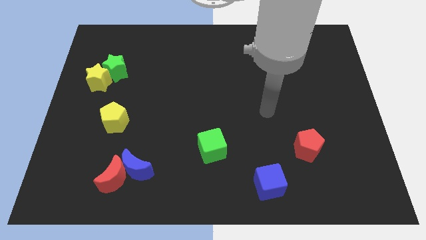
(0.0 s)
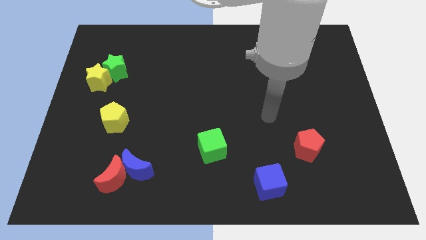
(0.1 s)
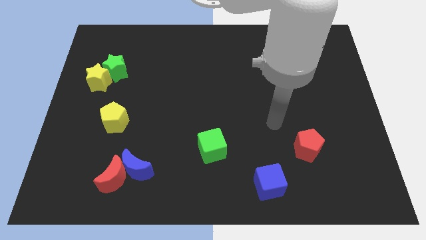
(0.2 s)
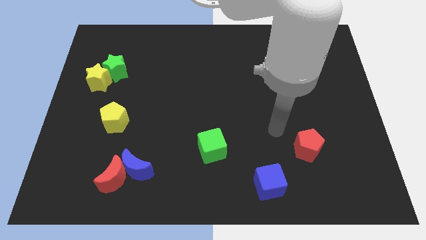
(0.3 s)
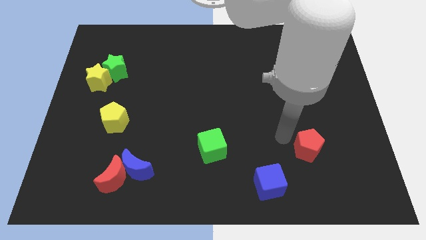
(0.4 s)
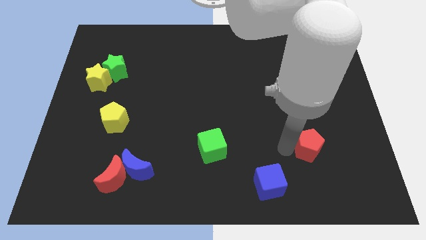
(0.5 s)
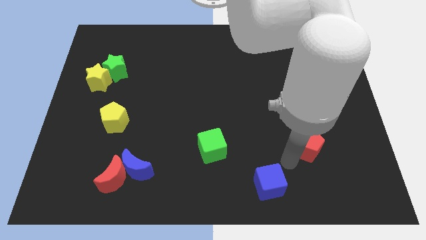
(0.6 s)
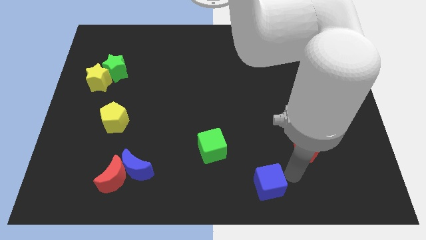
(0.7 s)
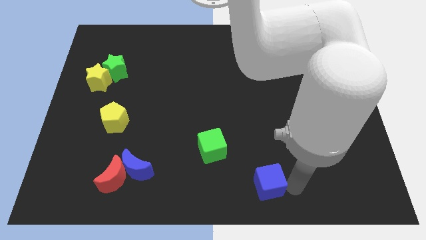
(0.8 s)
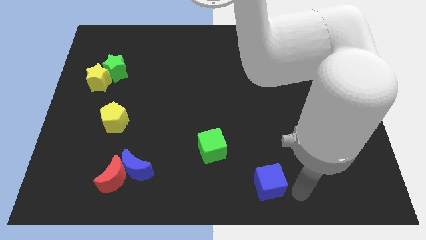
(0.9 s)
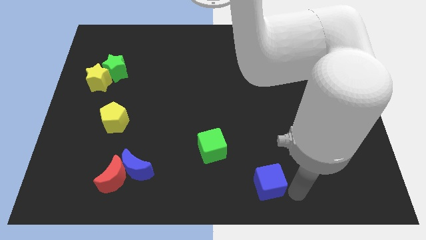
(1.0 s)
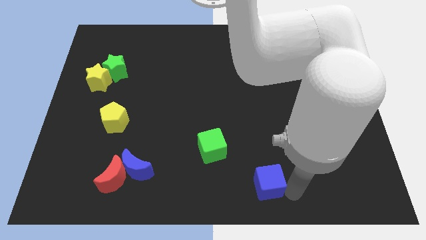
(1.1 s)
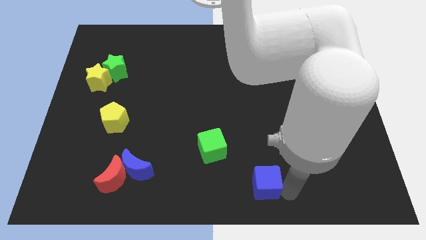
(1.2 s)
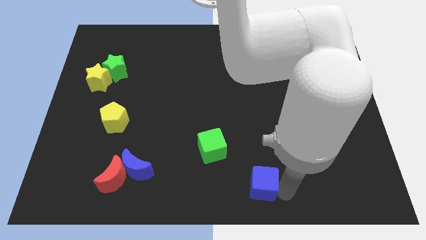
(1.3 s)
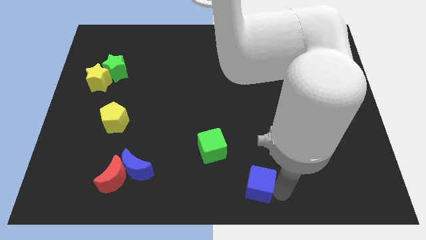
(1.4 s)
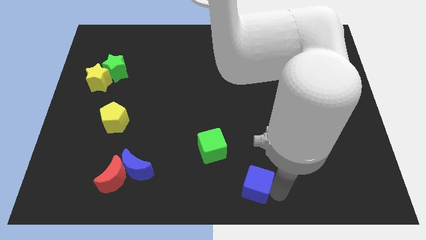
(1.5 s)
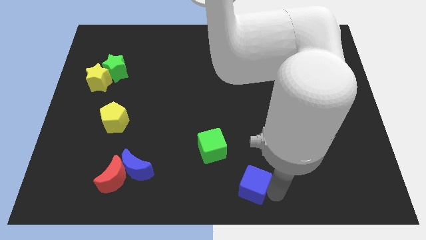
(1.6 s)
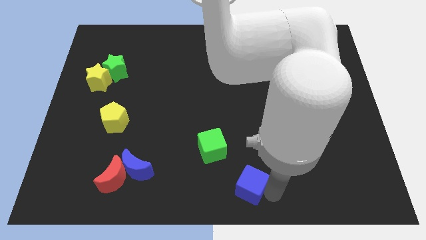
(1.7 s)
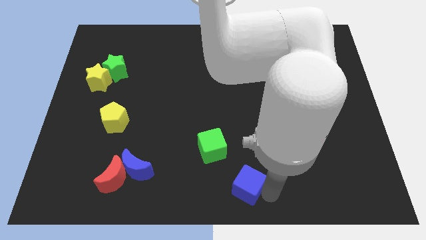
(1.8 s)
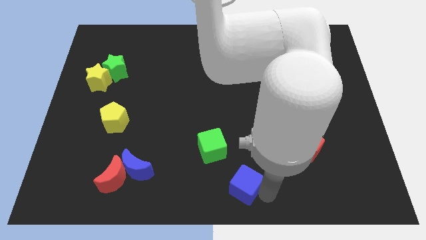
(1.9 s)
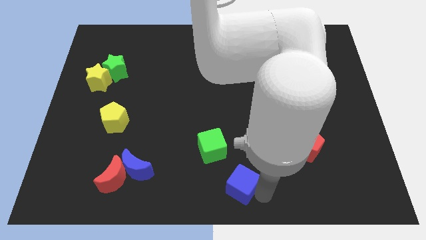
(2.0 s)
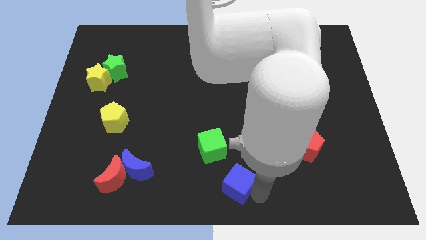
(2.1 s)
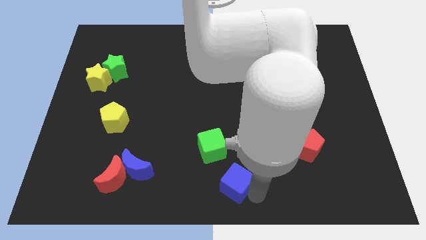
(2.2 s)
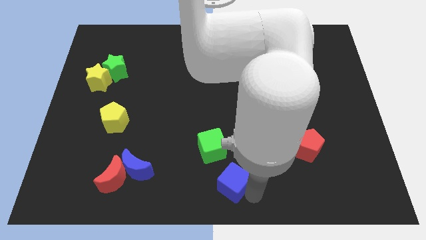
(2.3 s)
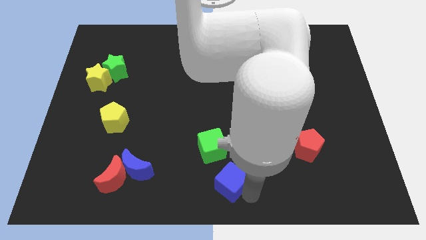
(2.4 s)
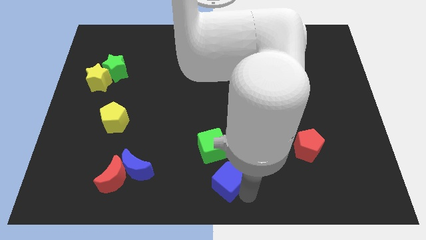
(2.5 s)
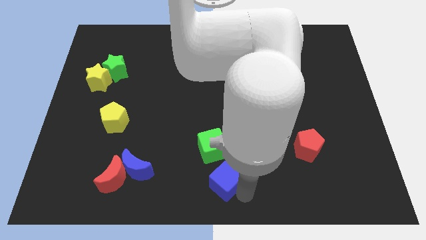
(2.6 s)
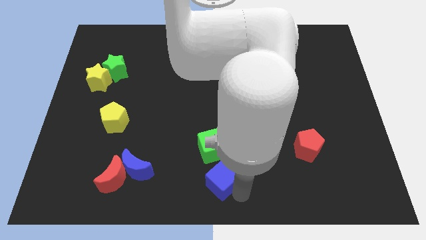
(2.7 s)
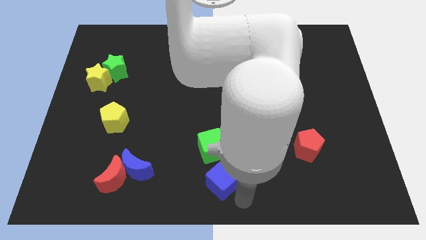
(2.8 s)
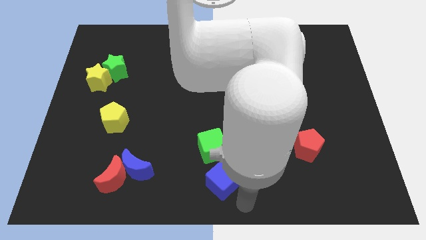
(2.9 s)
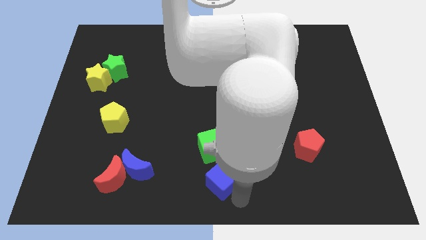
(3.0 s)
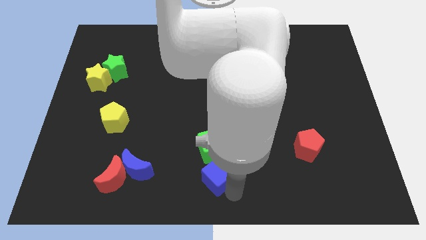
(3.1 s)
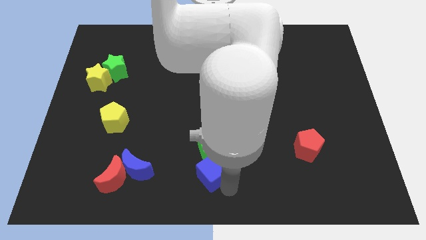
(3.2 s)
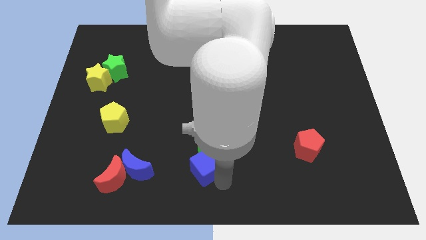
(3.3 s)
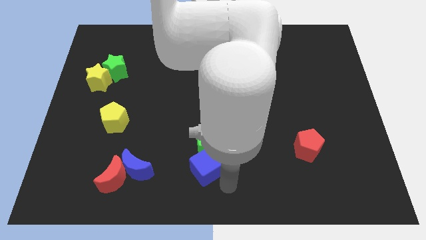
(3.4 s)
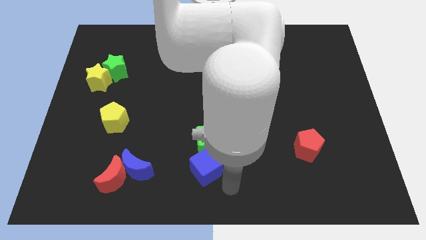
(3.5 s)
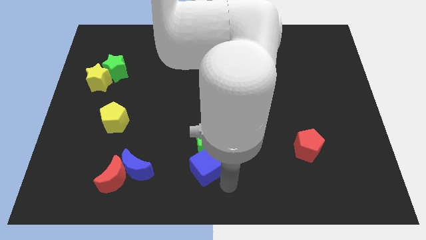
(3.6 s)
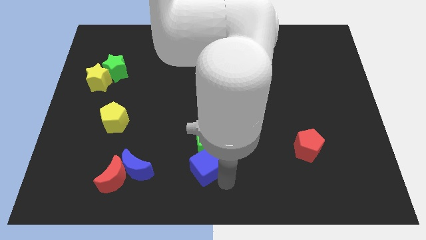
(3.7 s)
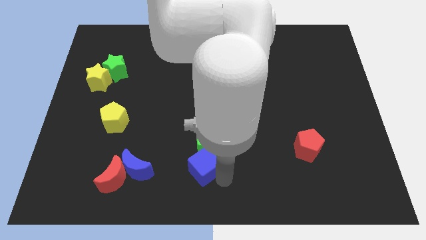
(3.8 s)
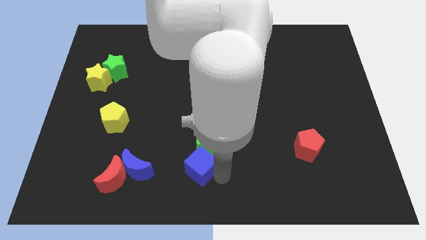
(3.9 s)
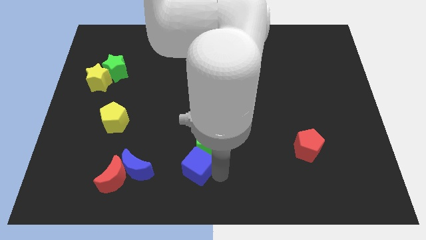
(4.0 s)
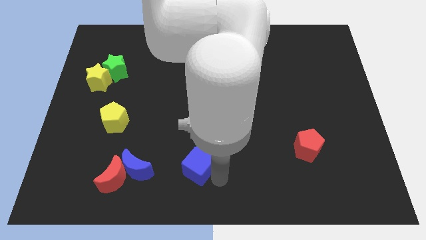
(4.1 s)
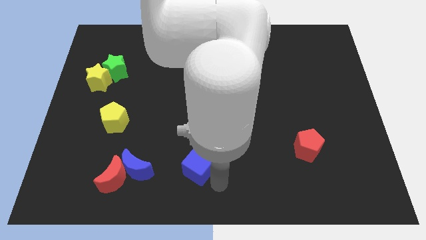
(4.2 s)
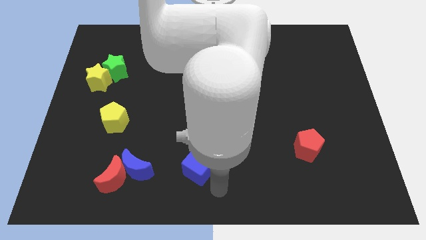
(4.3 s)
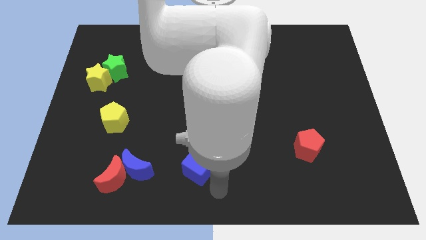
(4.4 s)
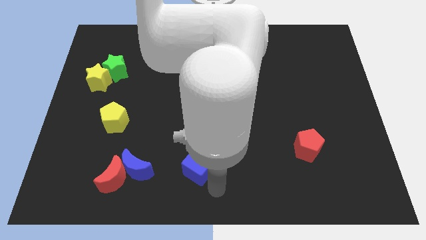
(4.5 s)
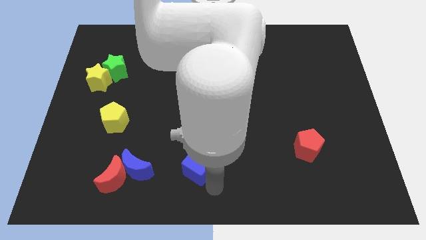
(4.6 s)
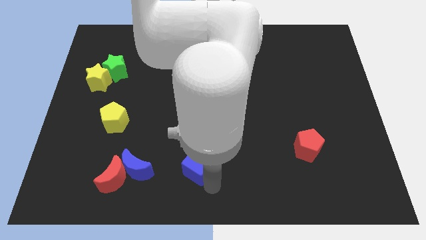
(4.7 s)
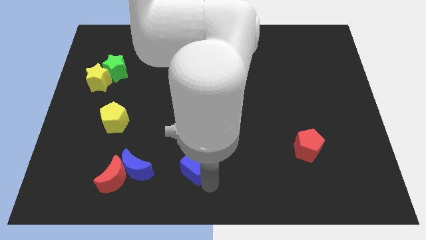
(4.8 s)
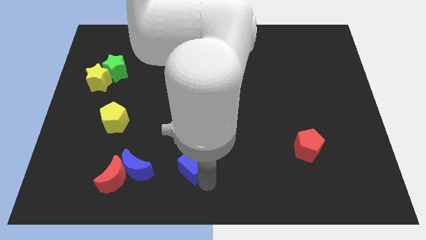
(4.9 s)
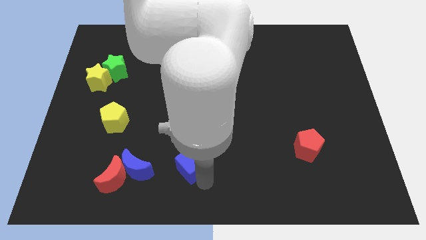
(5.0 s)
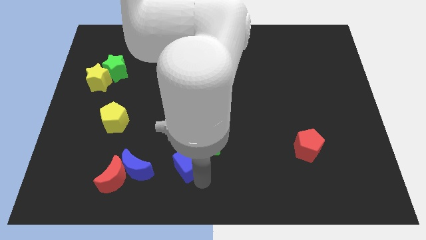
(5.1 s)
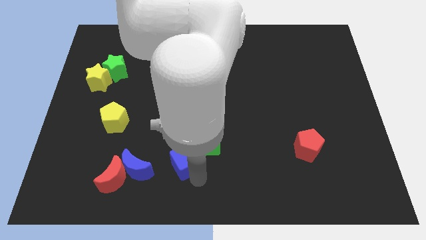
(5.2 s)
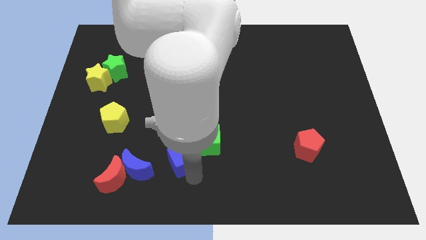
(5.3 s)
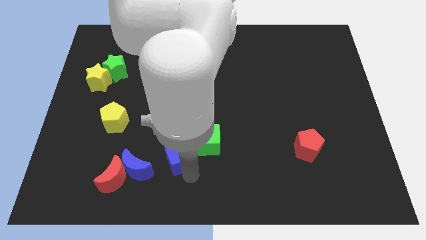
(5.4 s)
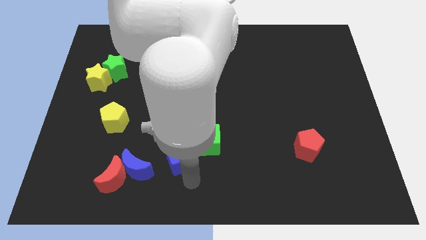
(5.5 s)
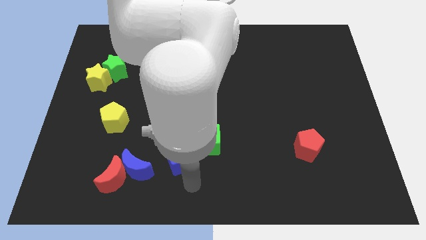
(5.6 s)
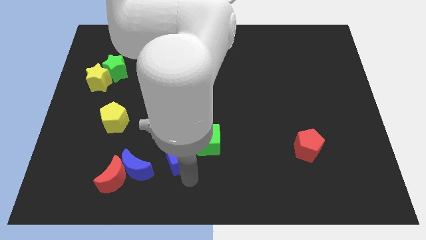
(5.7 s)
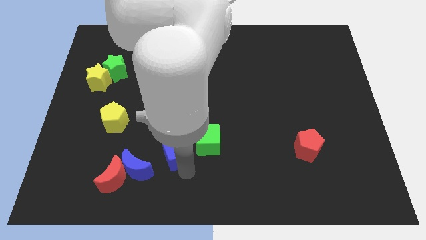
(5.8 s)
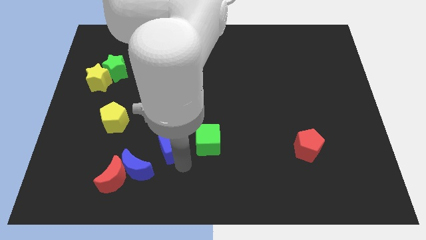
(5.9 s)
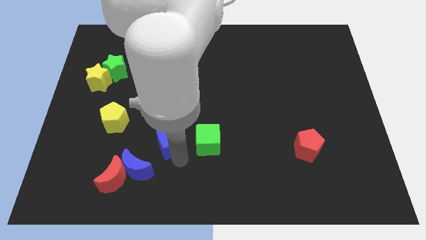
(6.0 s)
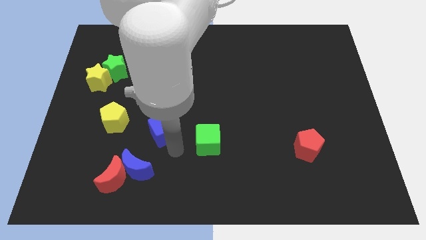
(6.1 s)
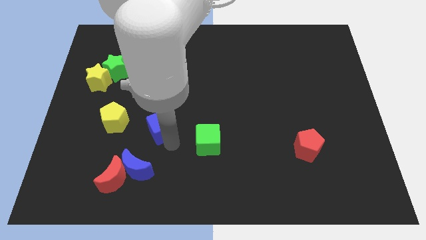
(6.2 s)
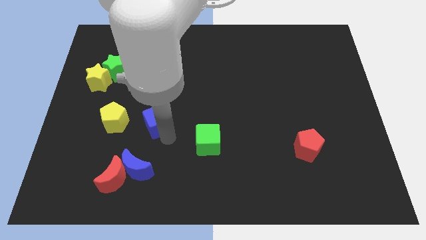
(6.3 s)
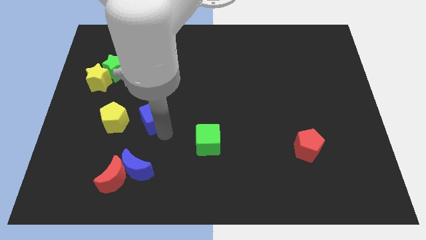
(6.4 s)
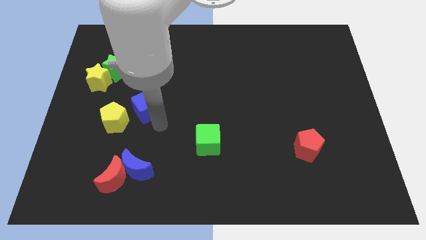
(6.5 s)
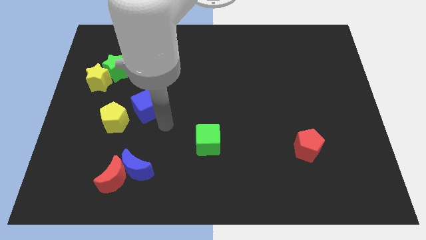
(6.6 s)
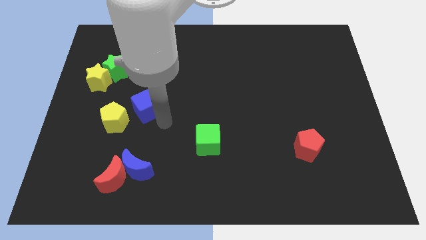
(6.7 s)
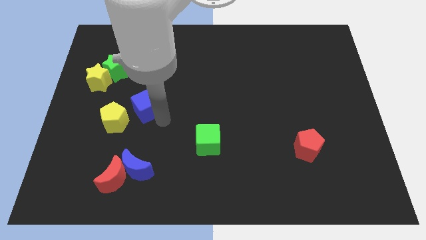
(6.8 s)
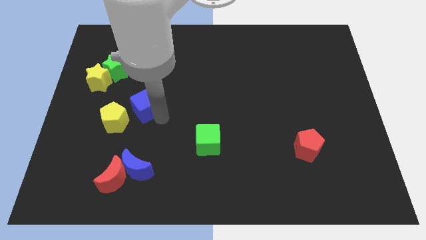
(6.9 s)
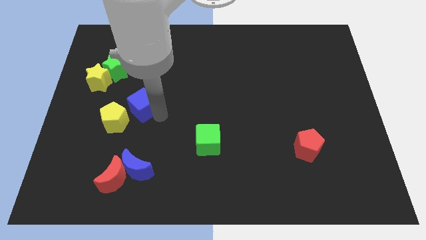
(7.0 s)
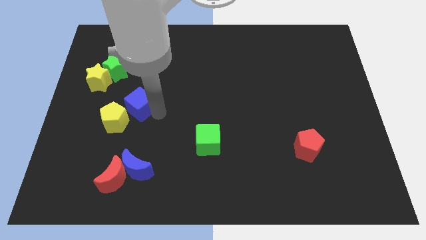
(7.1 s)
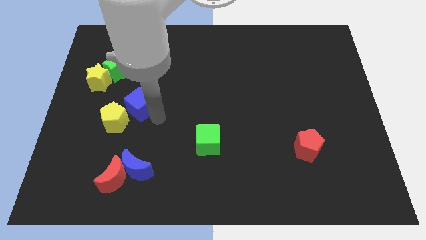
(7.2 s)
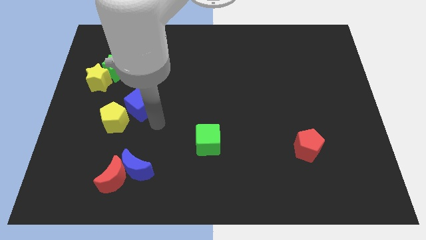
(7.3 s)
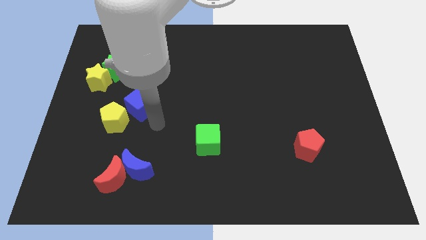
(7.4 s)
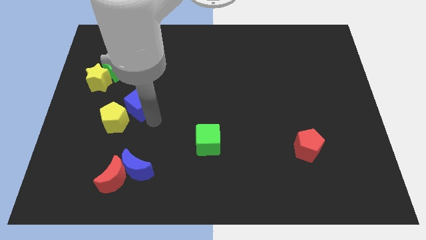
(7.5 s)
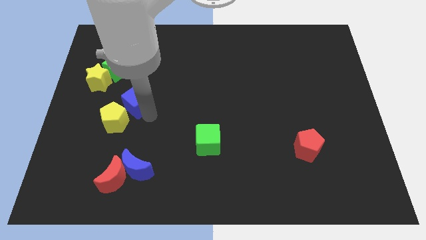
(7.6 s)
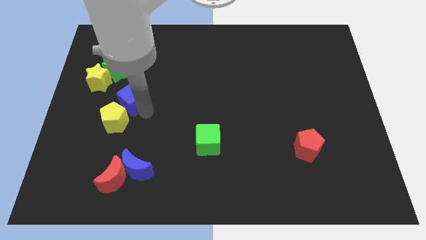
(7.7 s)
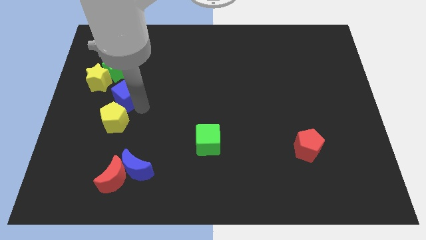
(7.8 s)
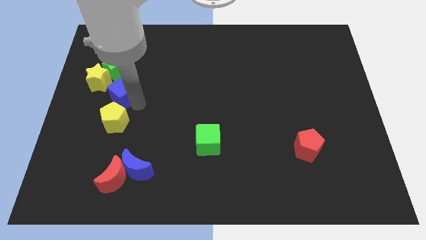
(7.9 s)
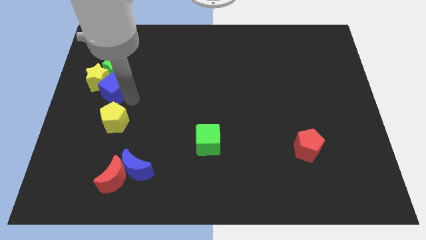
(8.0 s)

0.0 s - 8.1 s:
move the blue cube to the yellow star
